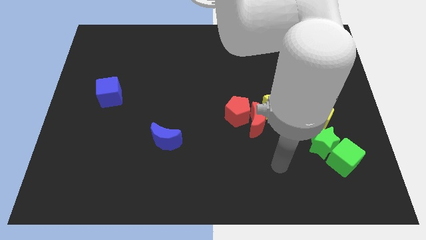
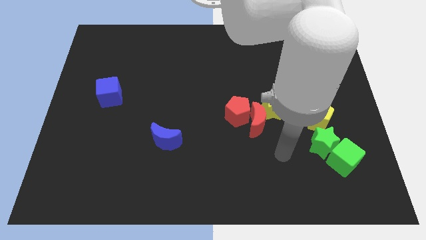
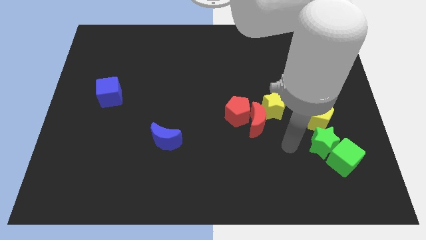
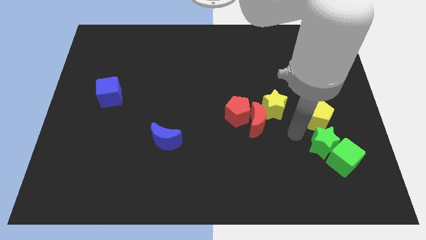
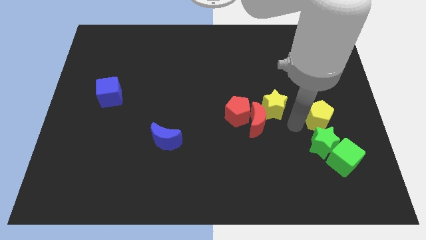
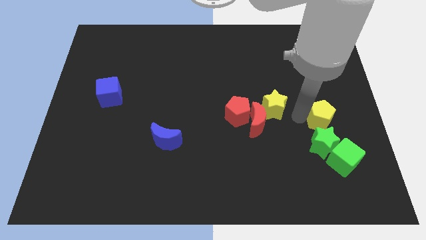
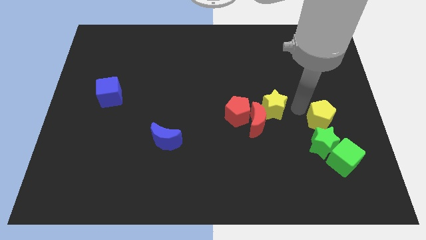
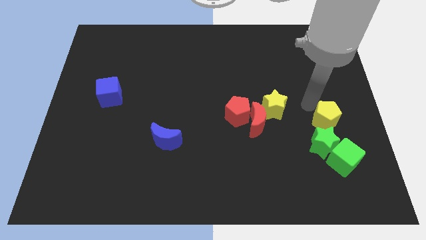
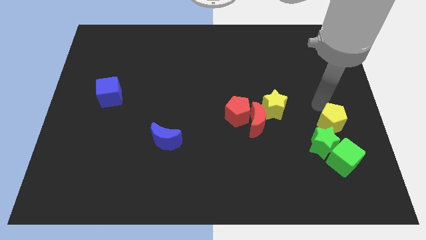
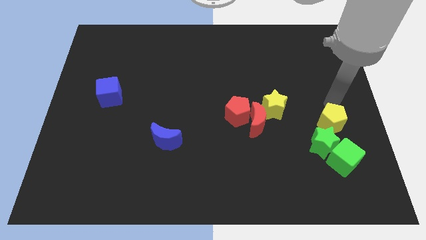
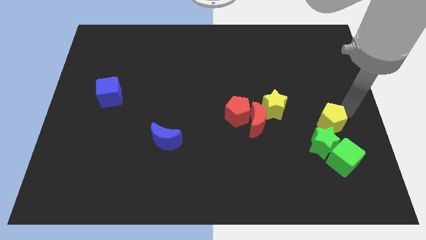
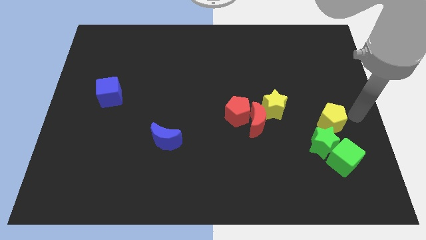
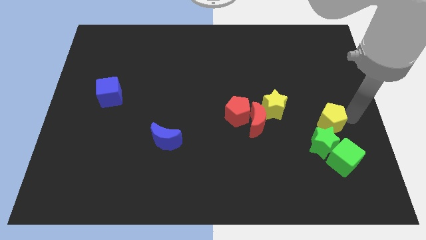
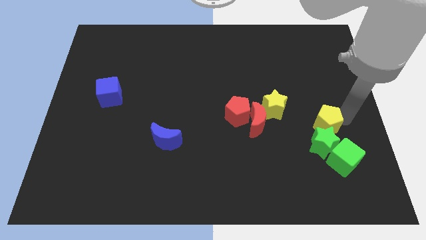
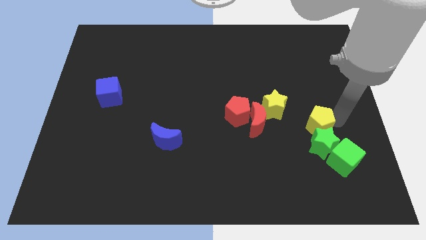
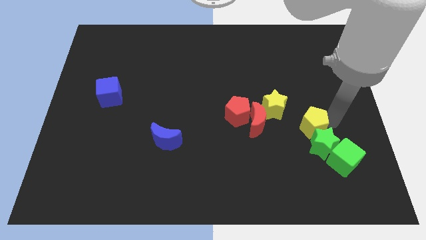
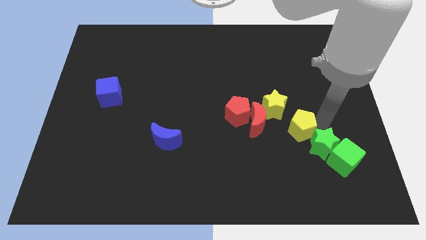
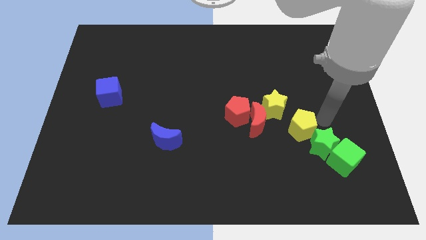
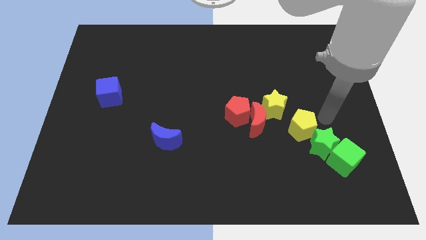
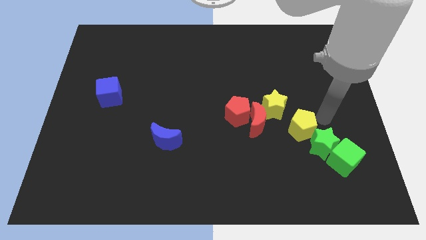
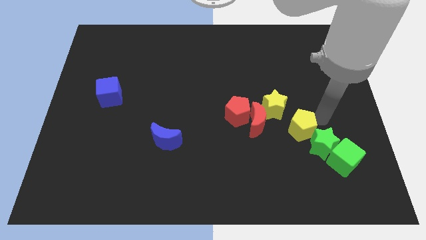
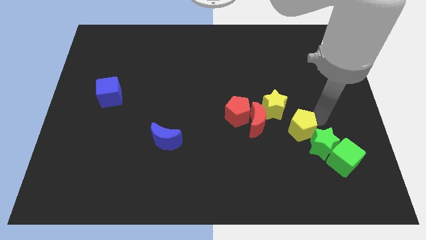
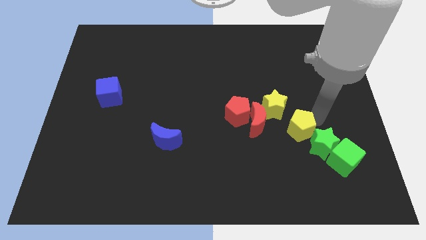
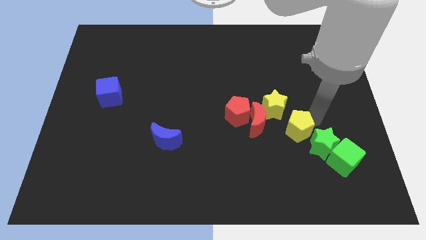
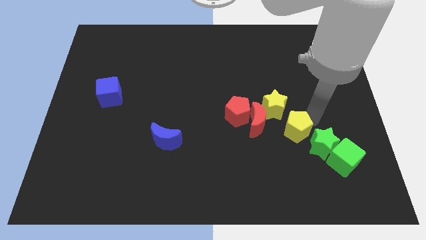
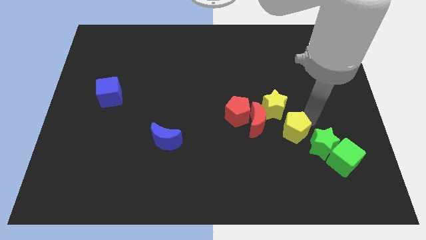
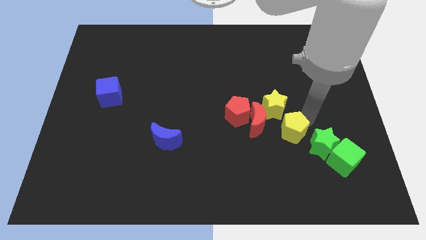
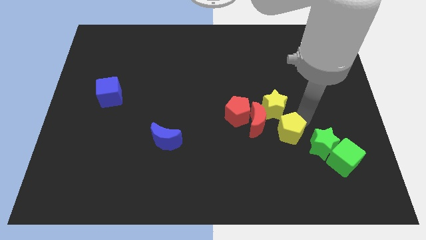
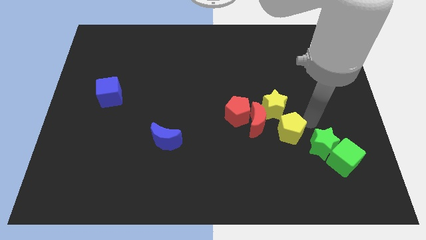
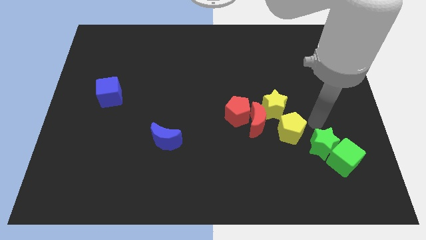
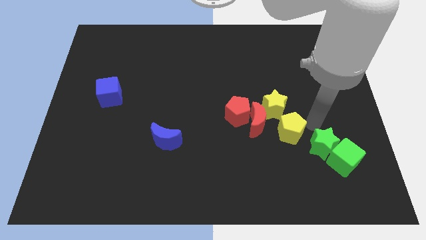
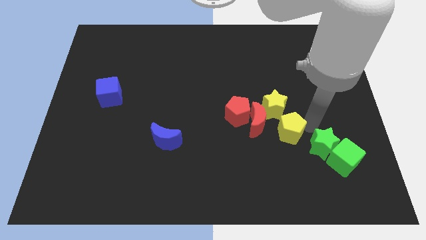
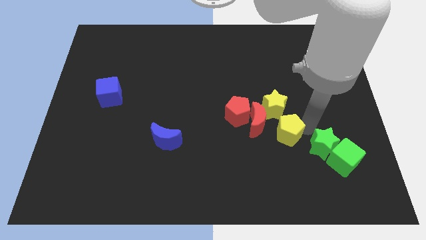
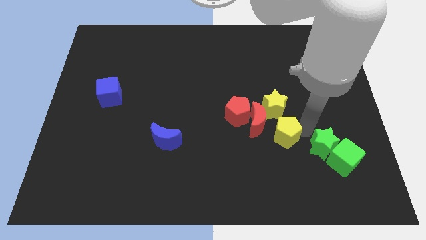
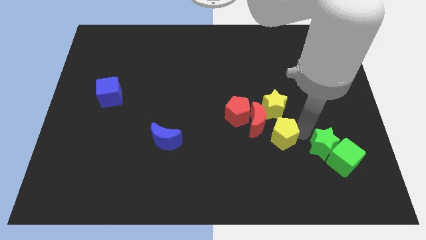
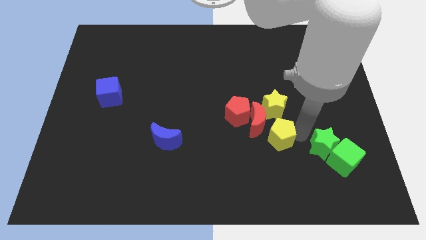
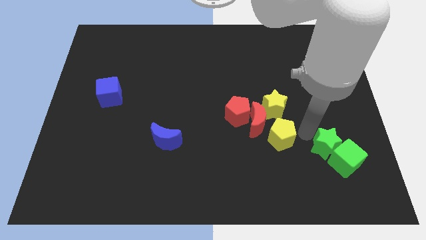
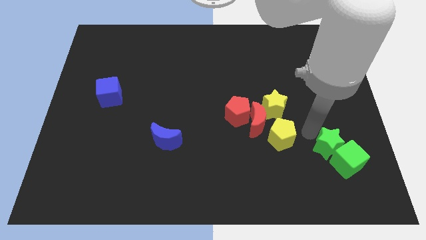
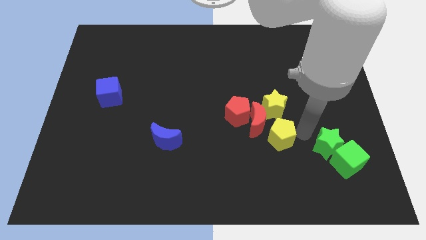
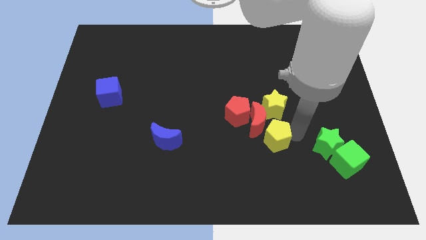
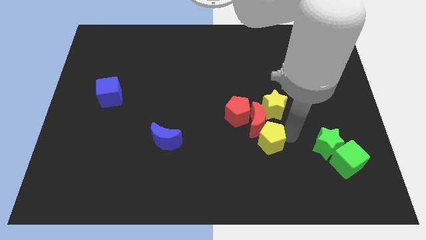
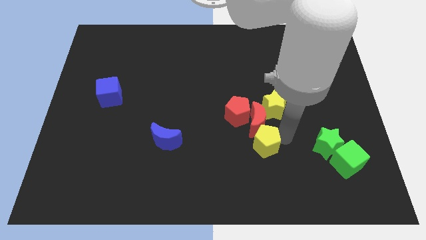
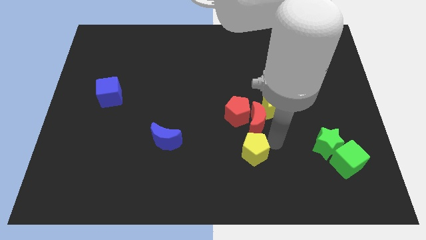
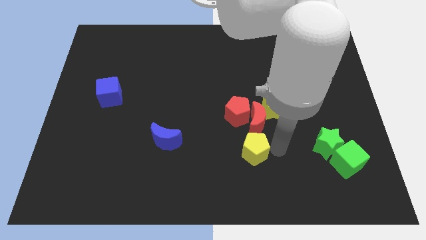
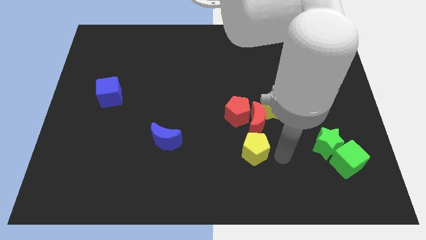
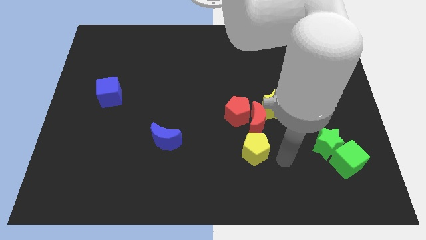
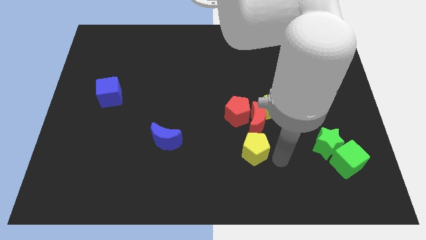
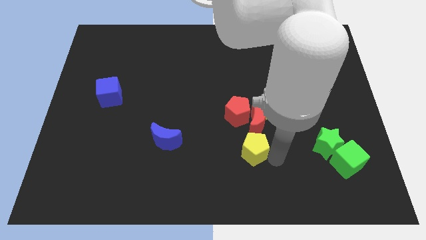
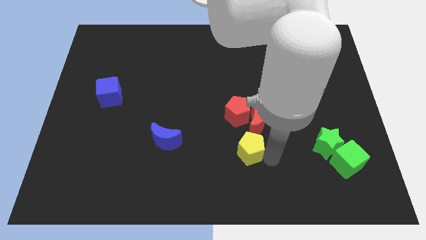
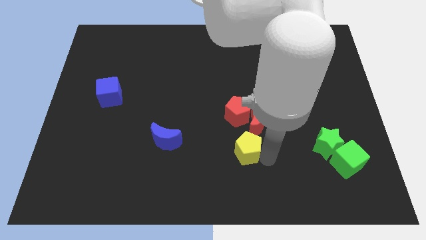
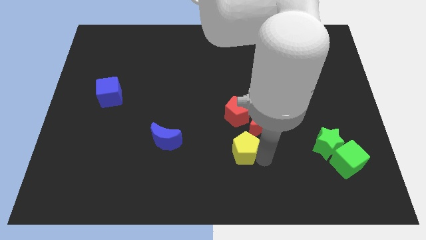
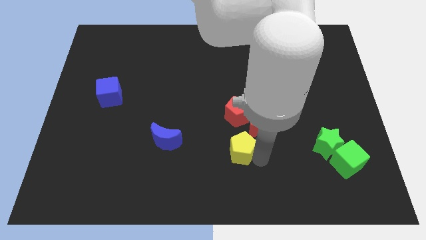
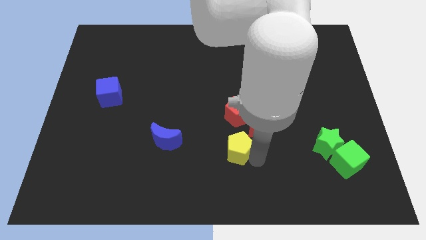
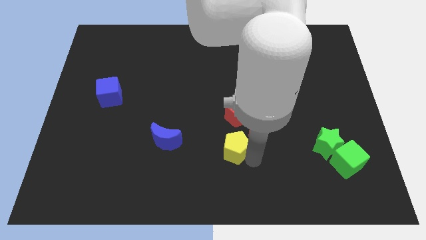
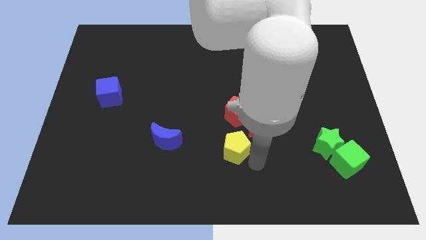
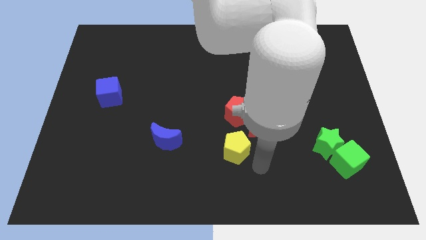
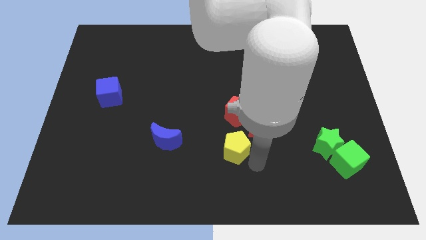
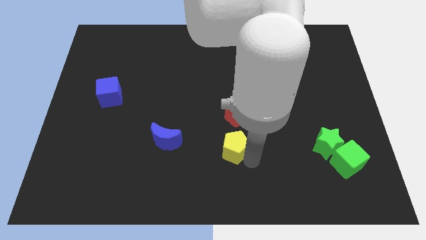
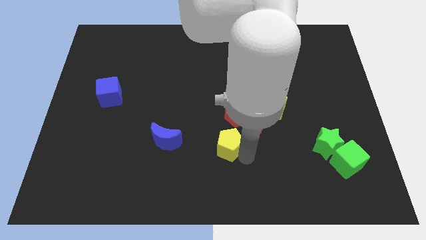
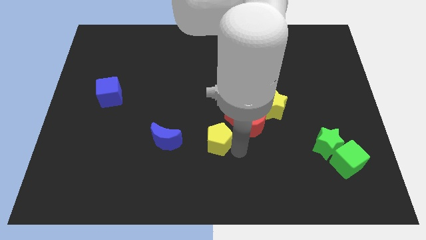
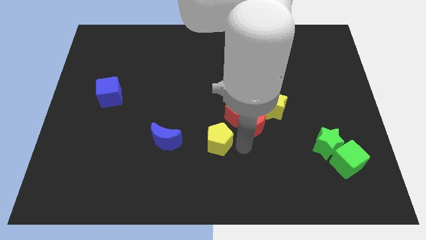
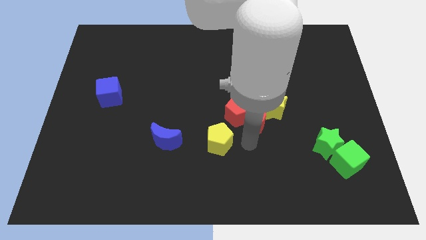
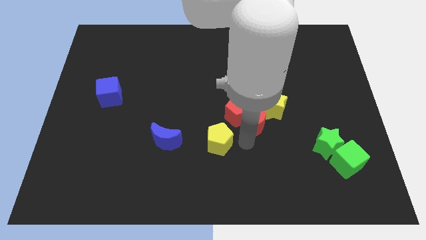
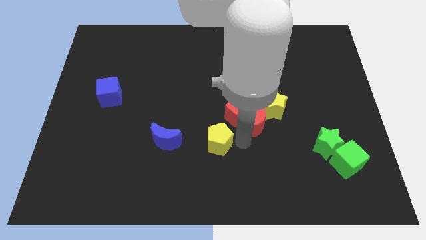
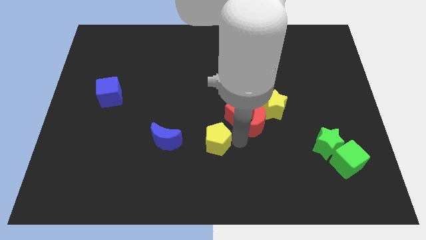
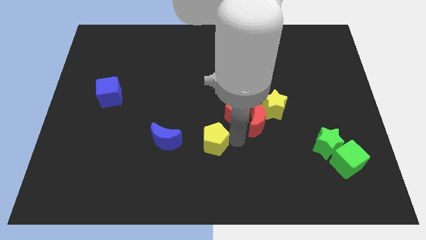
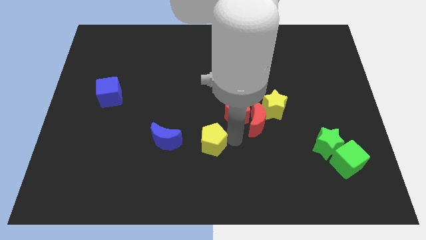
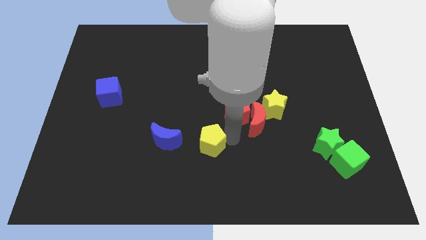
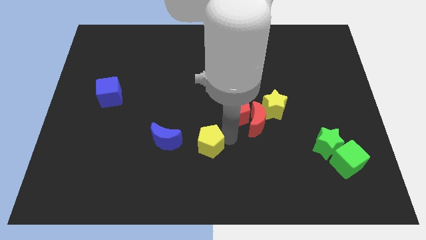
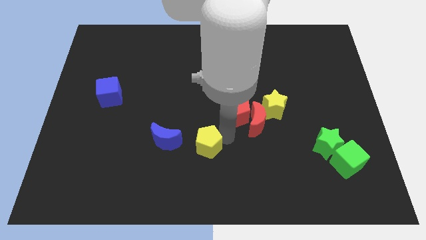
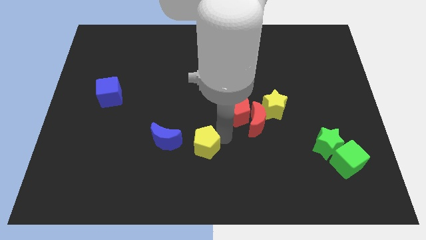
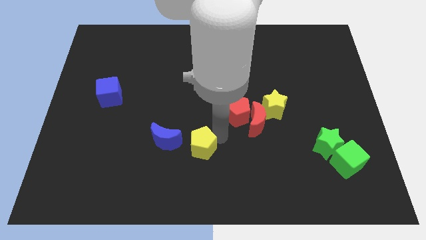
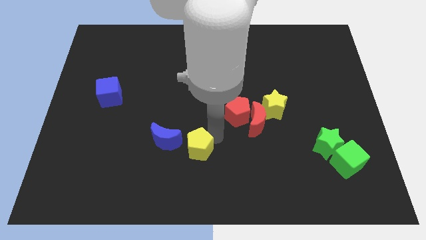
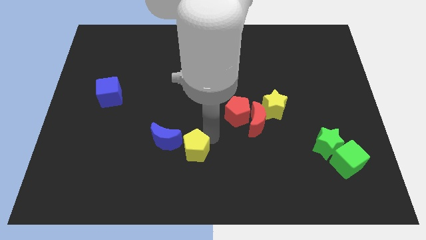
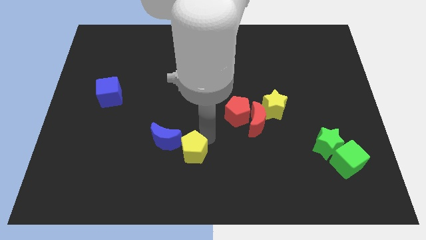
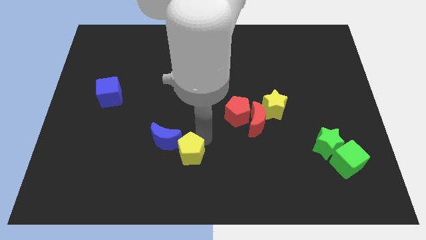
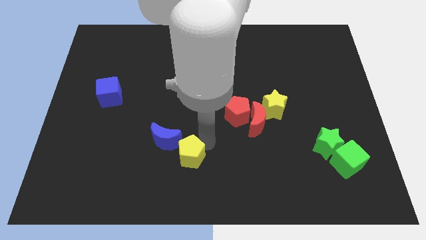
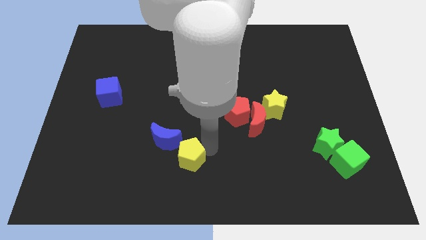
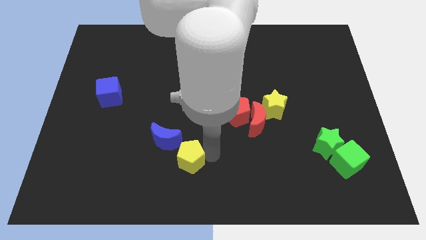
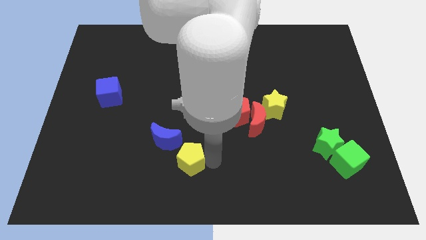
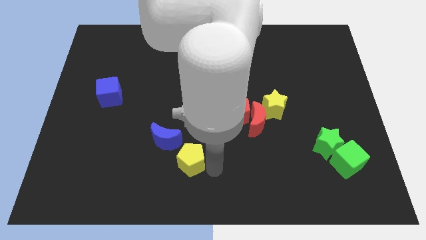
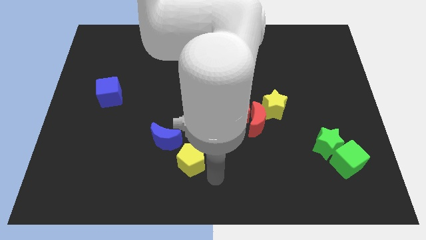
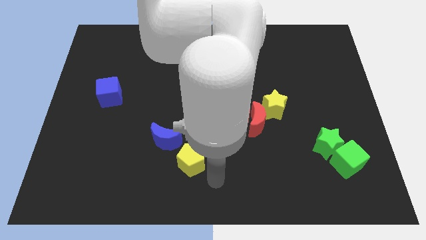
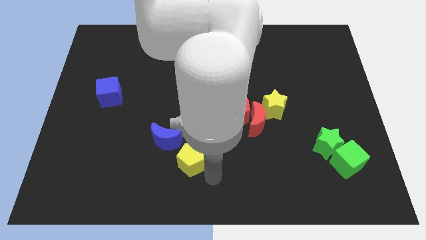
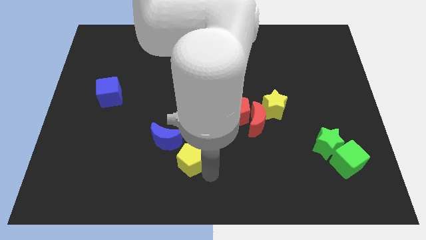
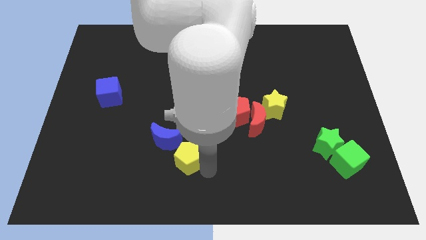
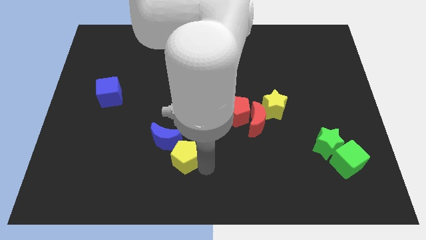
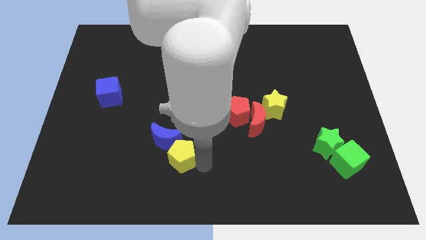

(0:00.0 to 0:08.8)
put the yellow pentagon next to the blue moon
